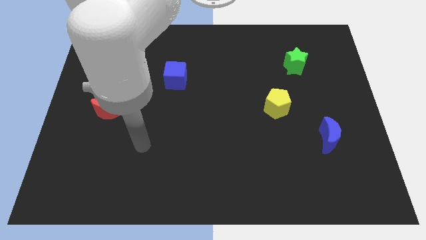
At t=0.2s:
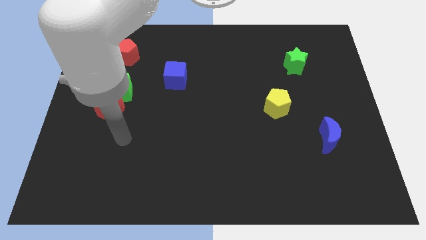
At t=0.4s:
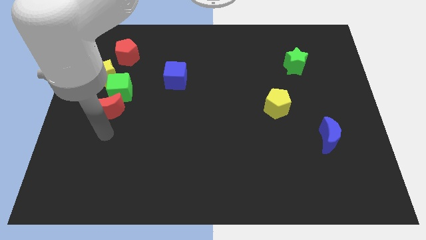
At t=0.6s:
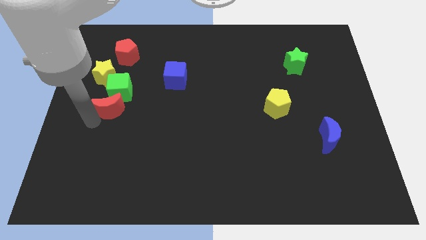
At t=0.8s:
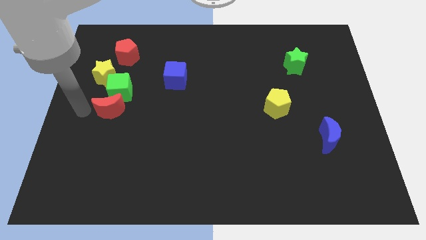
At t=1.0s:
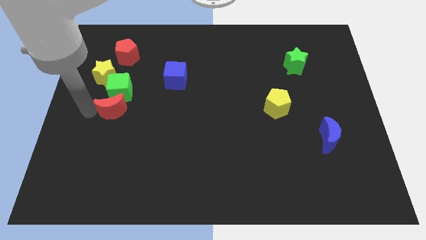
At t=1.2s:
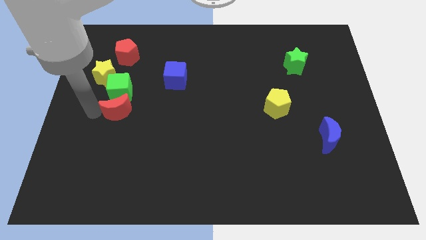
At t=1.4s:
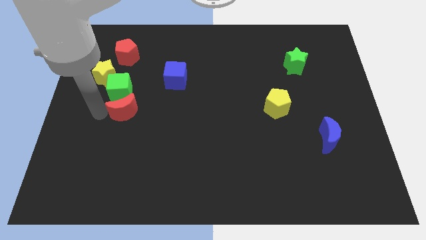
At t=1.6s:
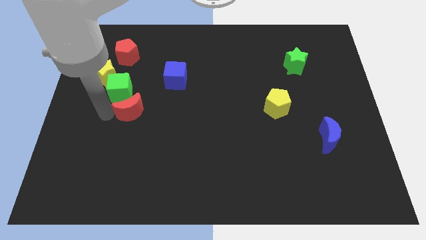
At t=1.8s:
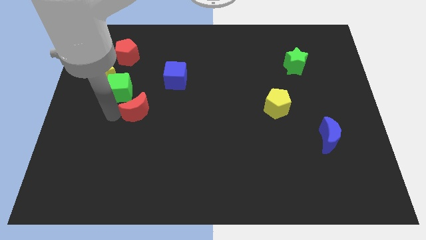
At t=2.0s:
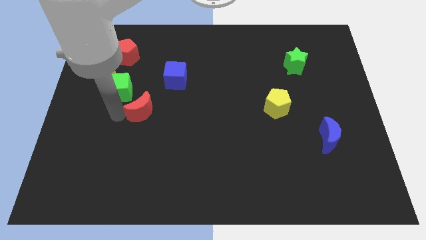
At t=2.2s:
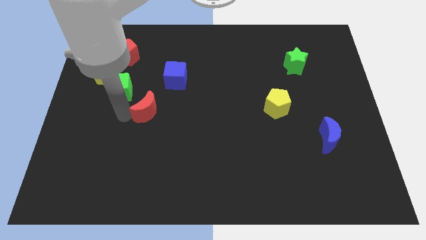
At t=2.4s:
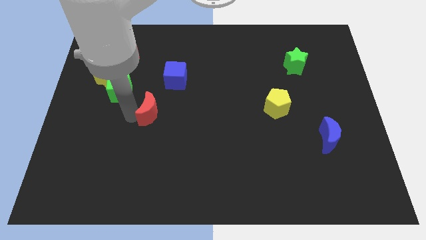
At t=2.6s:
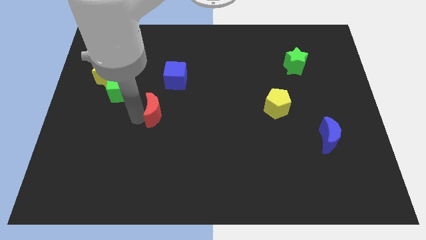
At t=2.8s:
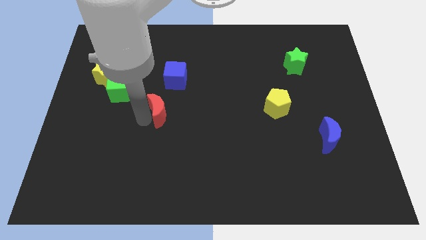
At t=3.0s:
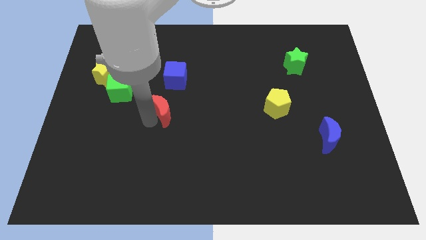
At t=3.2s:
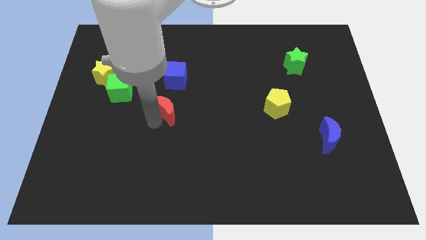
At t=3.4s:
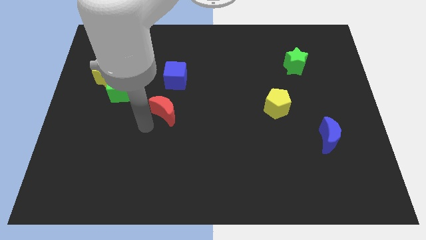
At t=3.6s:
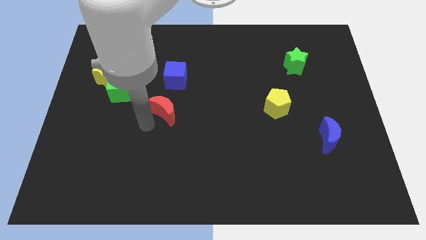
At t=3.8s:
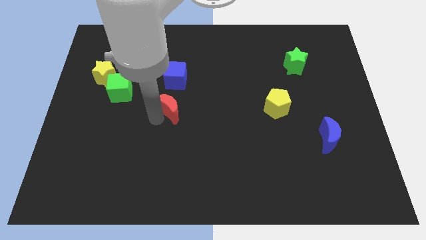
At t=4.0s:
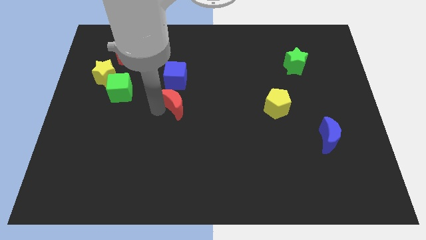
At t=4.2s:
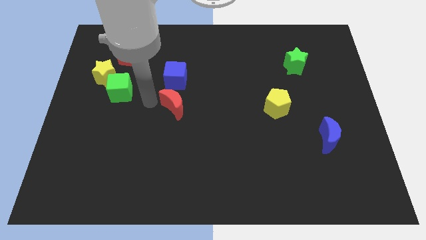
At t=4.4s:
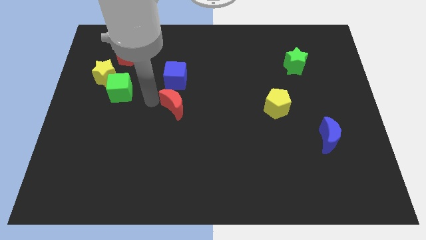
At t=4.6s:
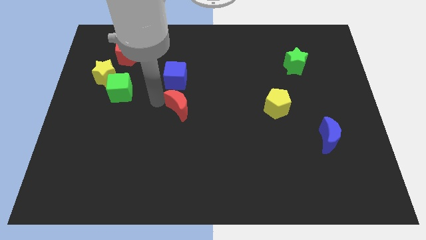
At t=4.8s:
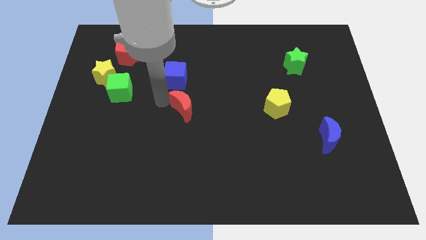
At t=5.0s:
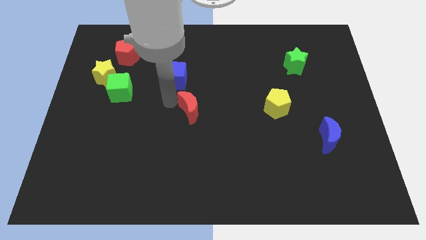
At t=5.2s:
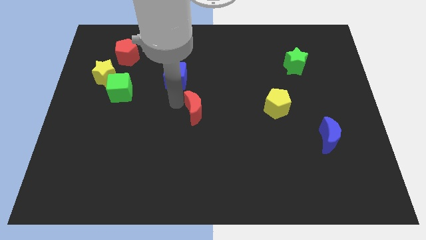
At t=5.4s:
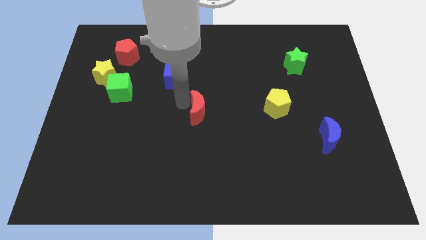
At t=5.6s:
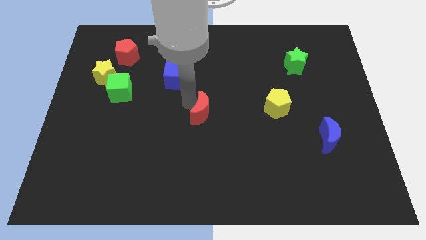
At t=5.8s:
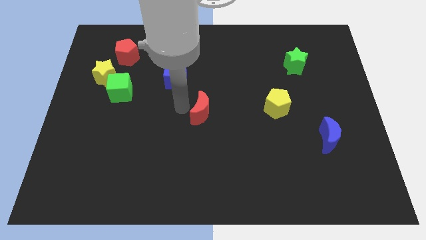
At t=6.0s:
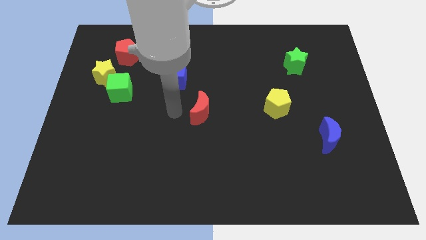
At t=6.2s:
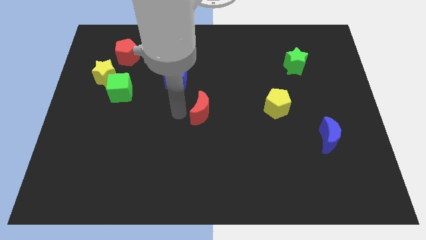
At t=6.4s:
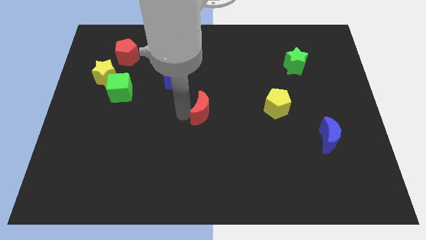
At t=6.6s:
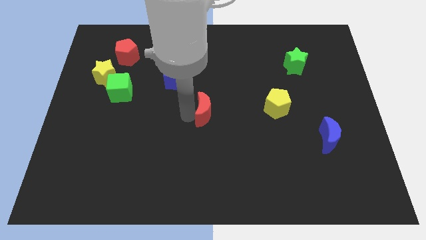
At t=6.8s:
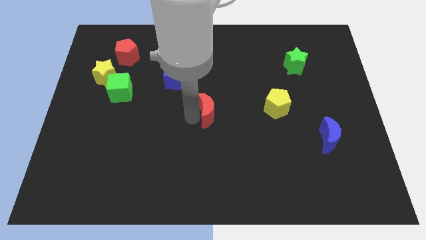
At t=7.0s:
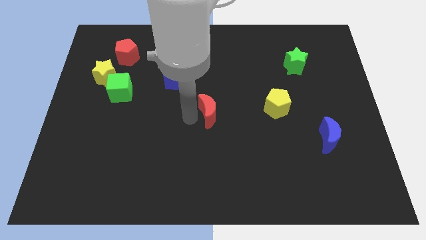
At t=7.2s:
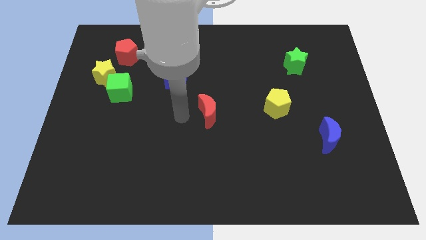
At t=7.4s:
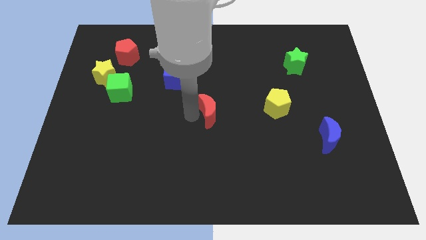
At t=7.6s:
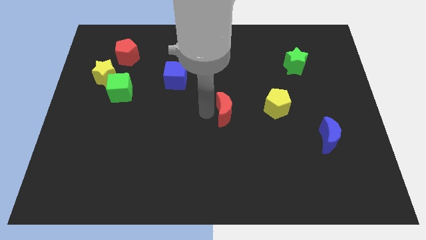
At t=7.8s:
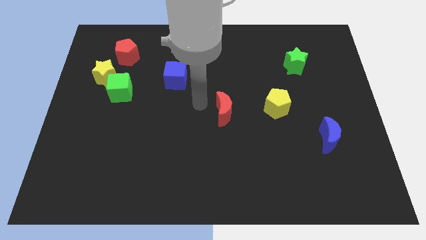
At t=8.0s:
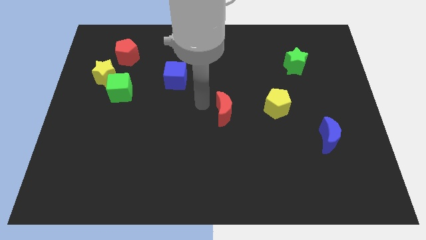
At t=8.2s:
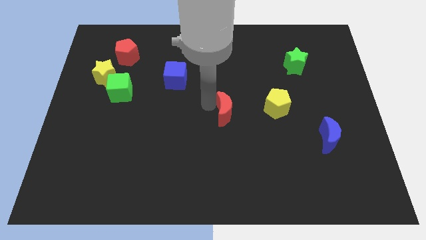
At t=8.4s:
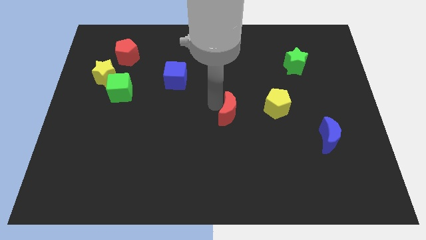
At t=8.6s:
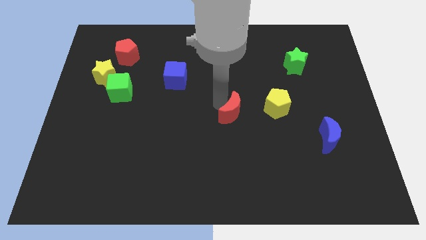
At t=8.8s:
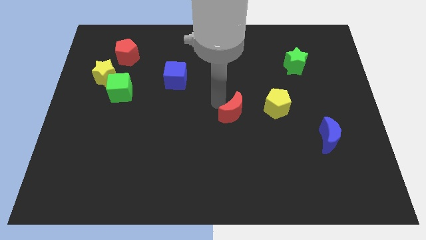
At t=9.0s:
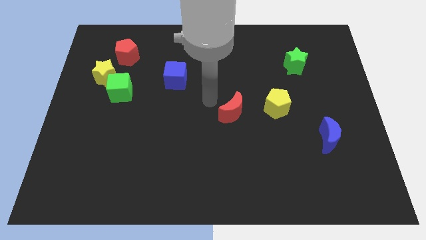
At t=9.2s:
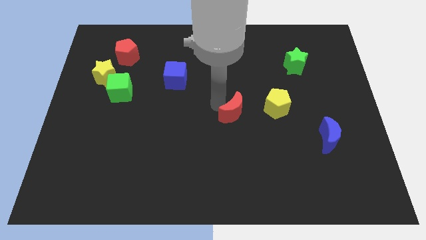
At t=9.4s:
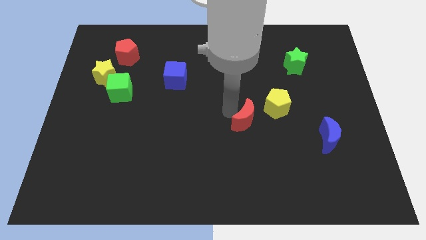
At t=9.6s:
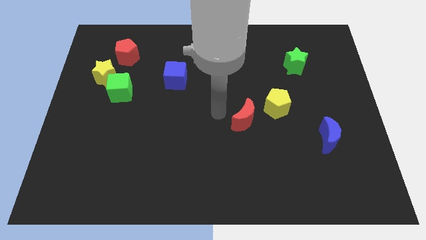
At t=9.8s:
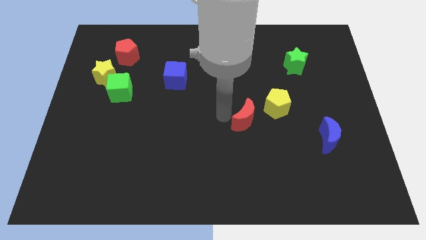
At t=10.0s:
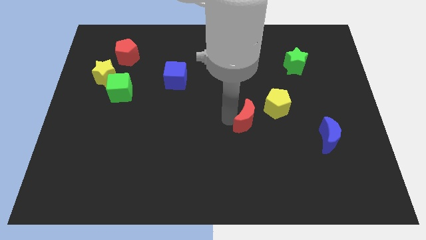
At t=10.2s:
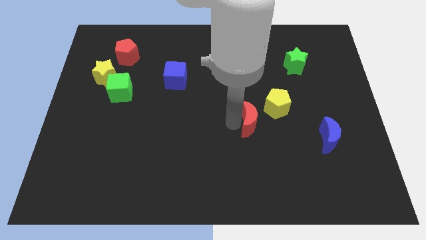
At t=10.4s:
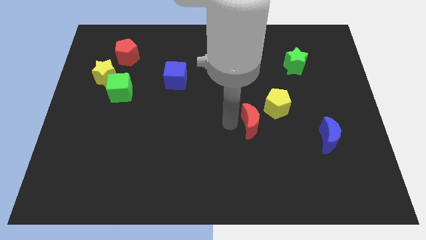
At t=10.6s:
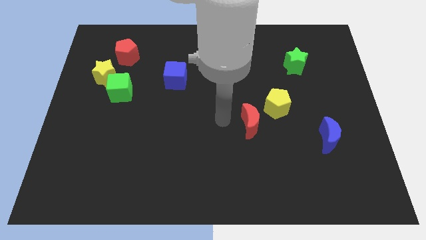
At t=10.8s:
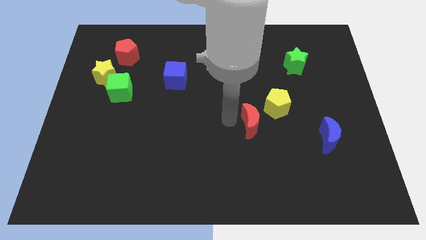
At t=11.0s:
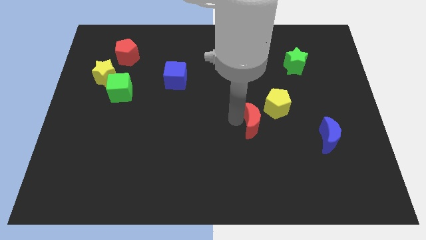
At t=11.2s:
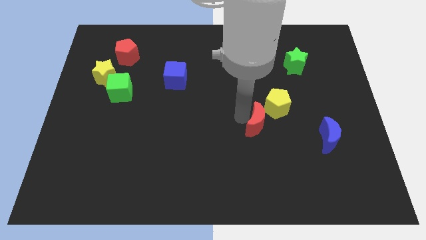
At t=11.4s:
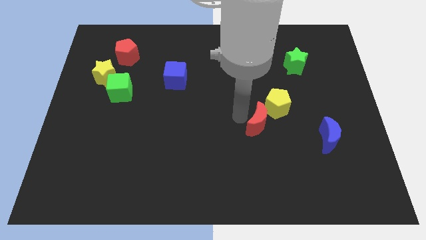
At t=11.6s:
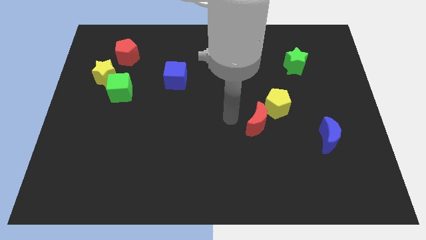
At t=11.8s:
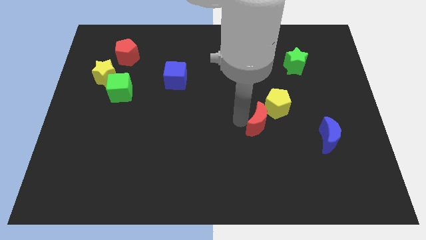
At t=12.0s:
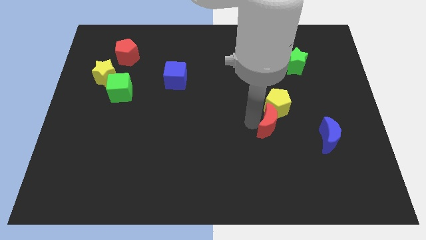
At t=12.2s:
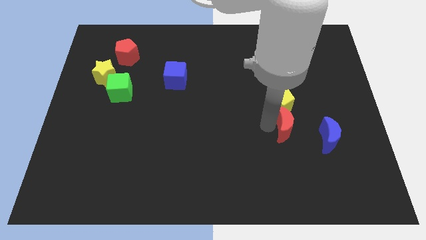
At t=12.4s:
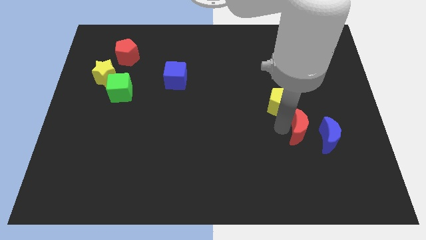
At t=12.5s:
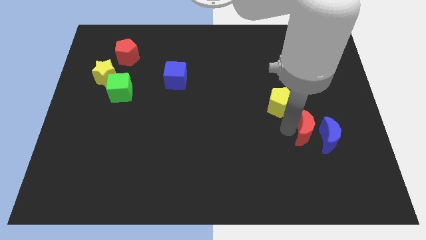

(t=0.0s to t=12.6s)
push the red moon next to the blue moon

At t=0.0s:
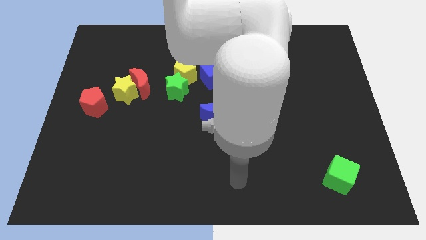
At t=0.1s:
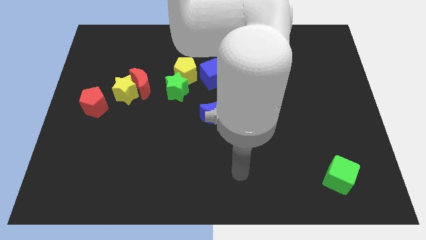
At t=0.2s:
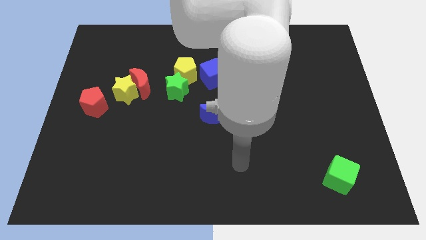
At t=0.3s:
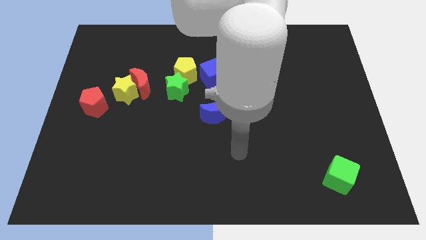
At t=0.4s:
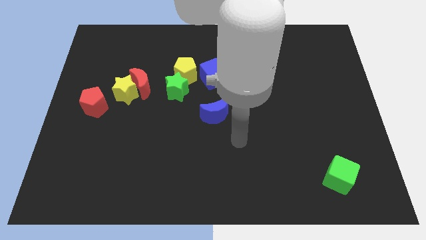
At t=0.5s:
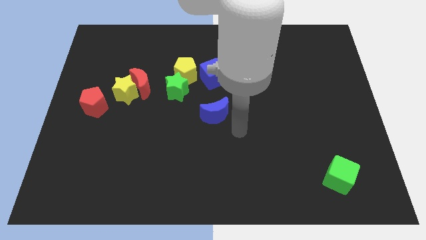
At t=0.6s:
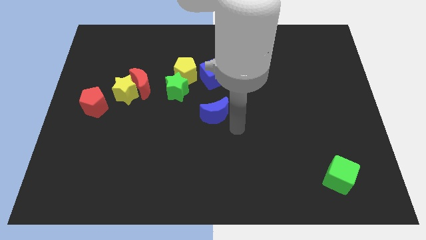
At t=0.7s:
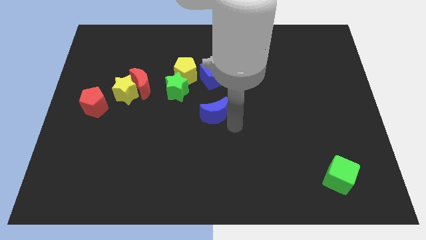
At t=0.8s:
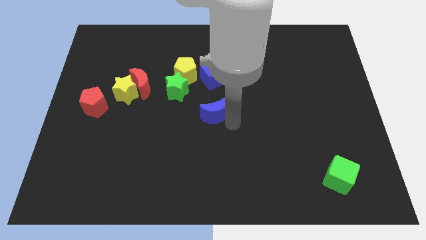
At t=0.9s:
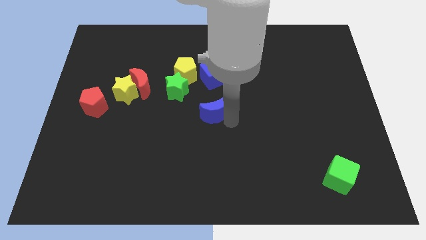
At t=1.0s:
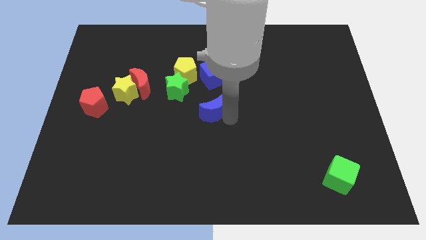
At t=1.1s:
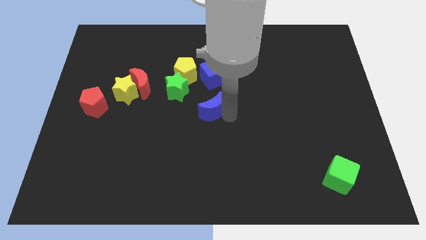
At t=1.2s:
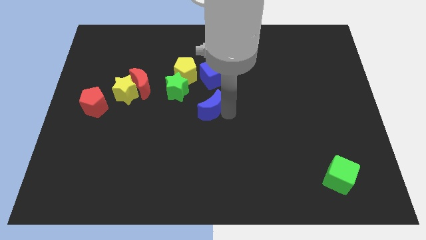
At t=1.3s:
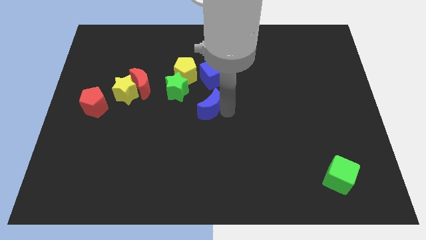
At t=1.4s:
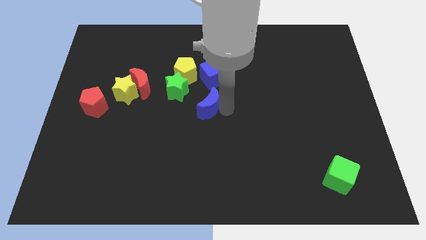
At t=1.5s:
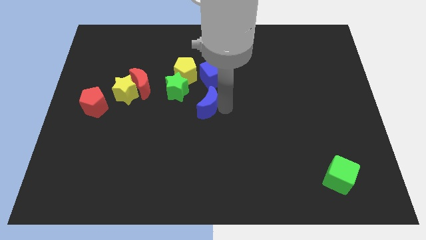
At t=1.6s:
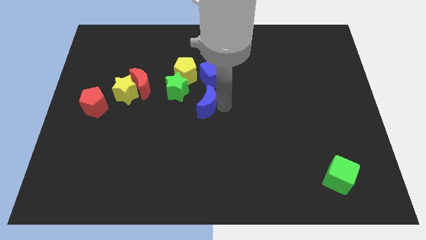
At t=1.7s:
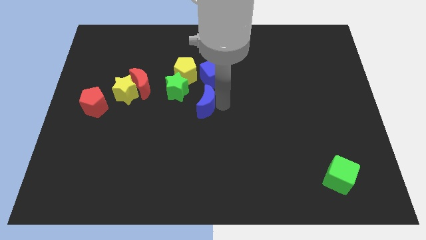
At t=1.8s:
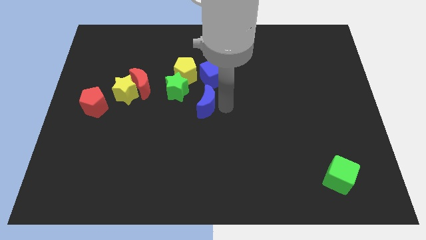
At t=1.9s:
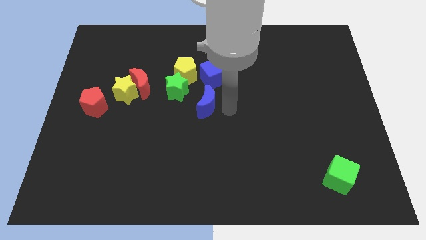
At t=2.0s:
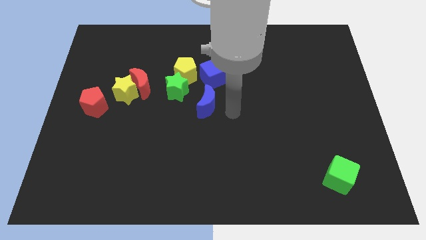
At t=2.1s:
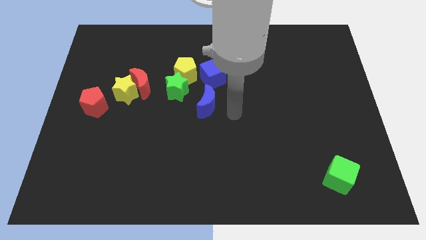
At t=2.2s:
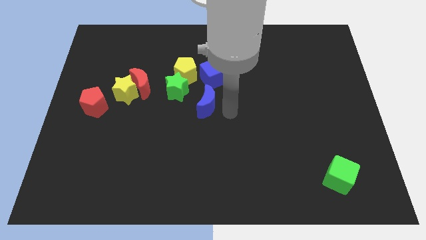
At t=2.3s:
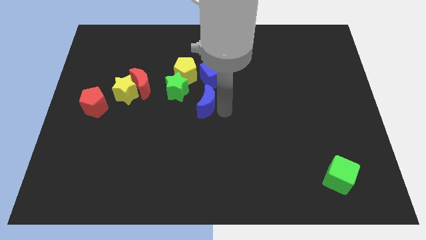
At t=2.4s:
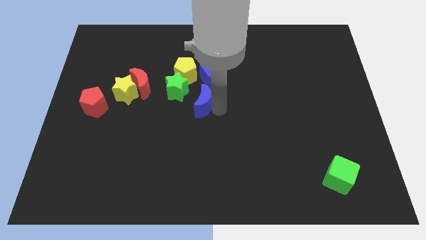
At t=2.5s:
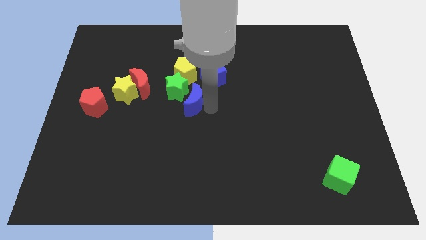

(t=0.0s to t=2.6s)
slide the blue moon next to the green star
